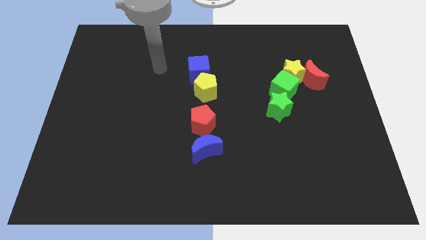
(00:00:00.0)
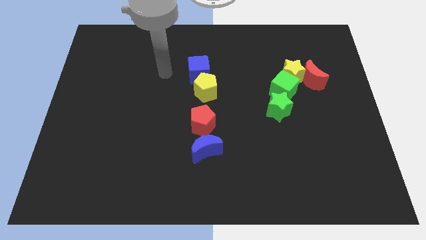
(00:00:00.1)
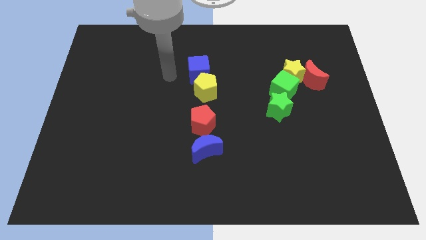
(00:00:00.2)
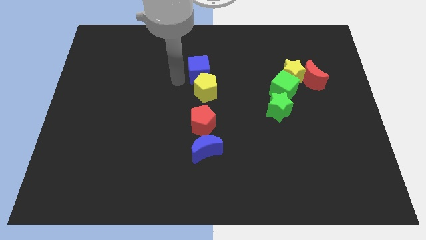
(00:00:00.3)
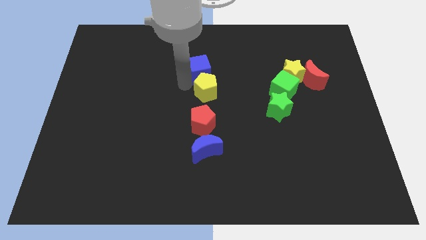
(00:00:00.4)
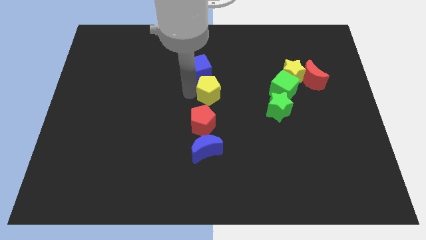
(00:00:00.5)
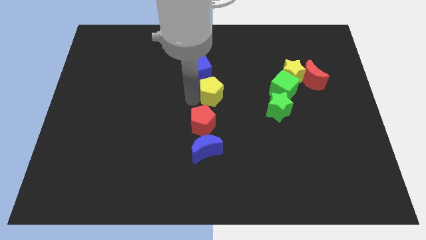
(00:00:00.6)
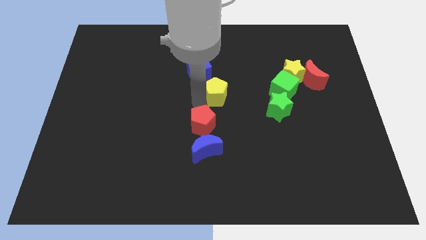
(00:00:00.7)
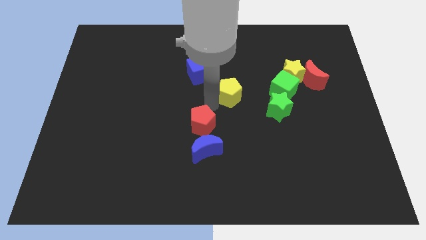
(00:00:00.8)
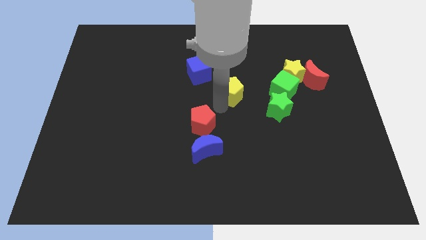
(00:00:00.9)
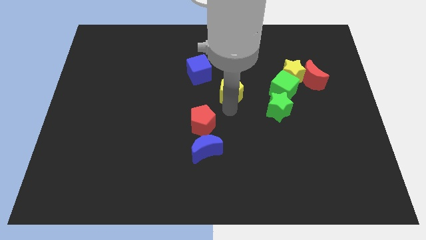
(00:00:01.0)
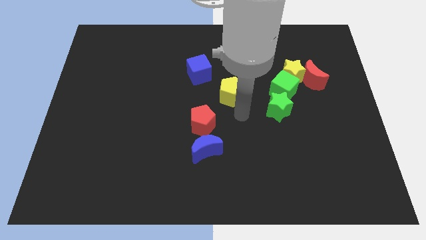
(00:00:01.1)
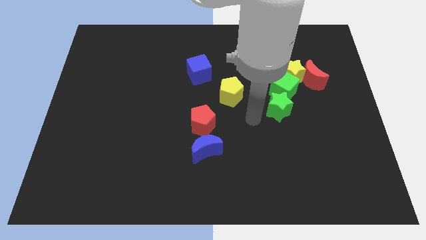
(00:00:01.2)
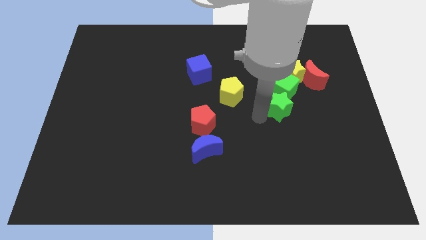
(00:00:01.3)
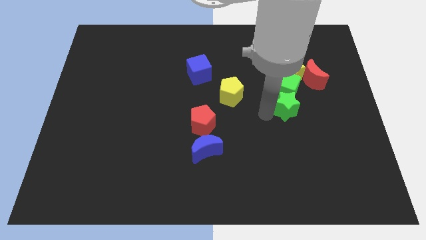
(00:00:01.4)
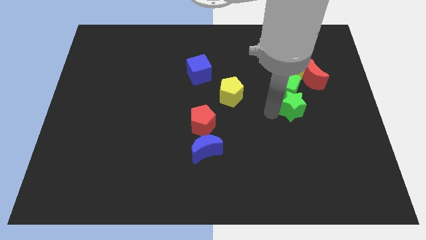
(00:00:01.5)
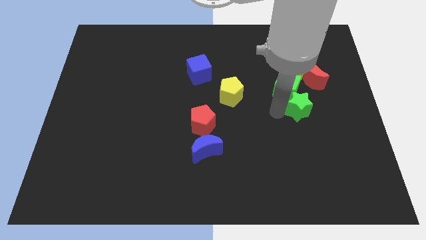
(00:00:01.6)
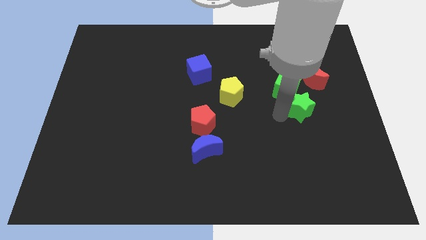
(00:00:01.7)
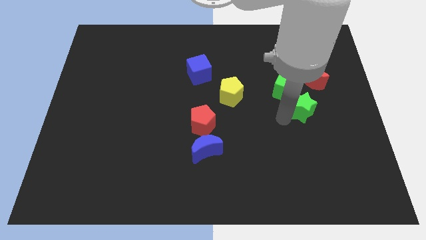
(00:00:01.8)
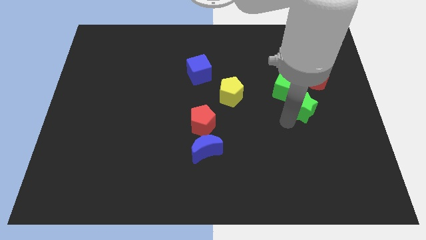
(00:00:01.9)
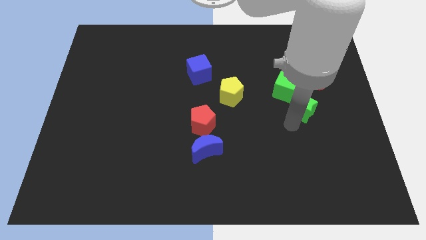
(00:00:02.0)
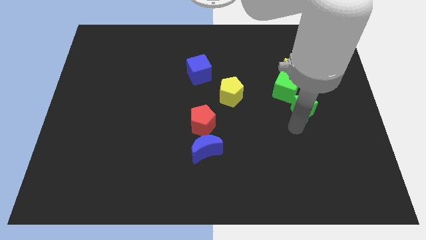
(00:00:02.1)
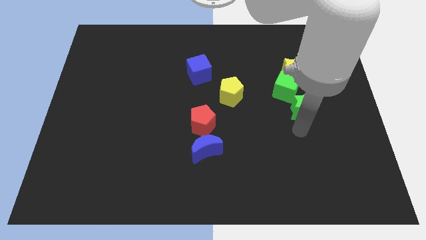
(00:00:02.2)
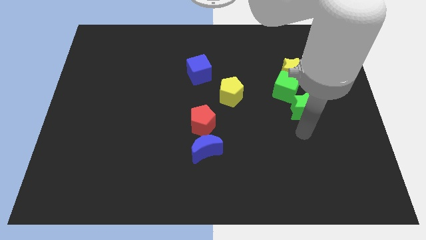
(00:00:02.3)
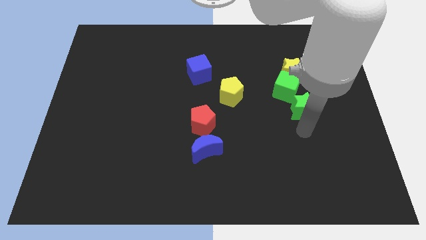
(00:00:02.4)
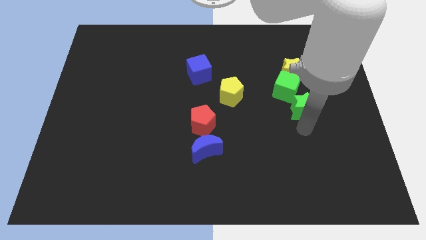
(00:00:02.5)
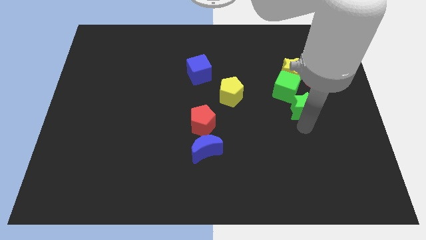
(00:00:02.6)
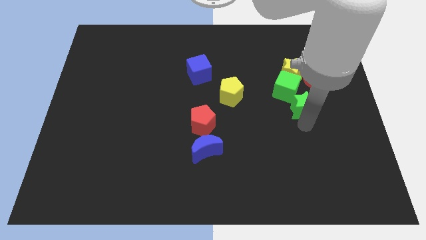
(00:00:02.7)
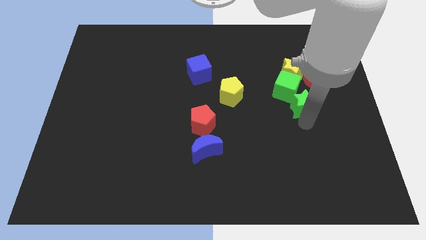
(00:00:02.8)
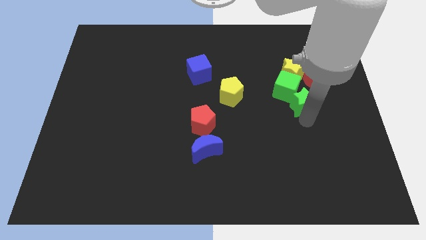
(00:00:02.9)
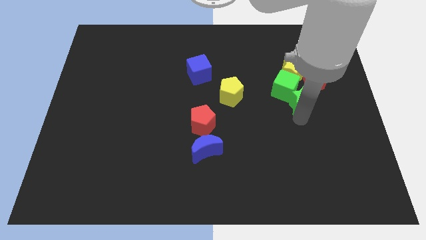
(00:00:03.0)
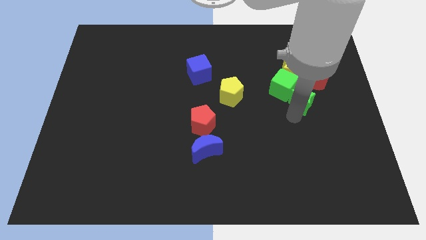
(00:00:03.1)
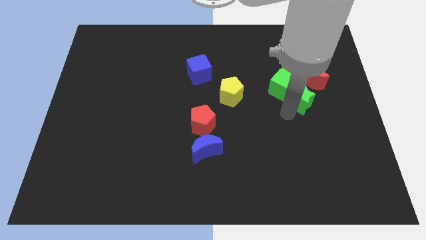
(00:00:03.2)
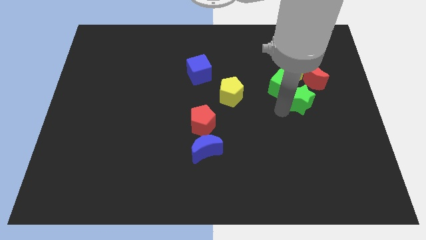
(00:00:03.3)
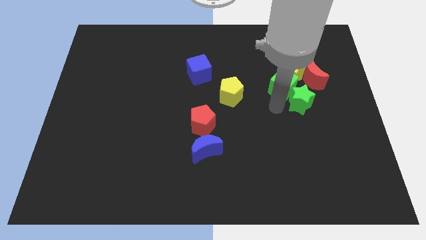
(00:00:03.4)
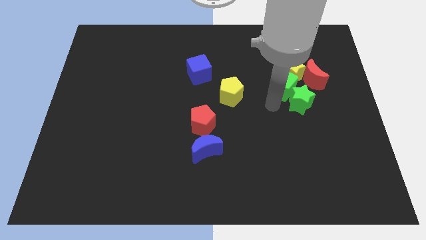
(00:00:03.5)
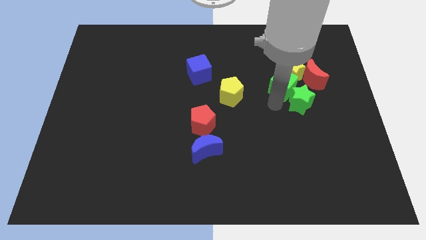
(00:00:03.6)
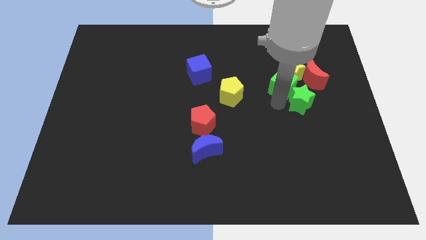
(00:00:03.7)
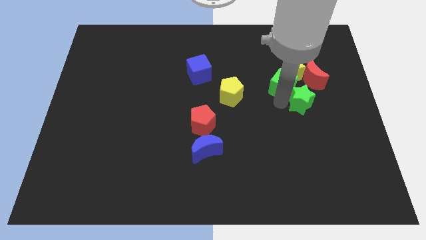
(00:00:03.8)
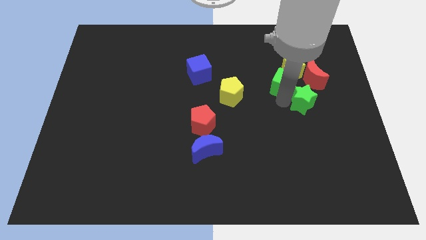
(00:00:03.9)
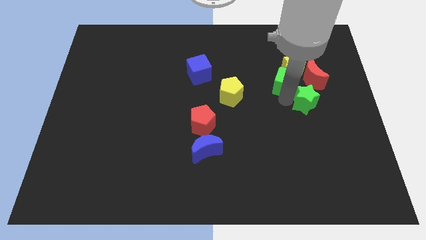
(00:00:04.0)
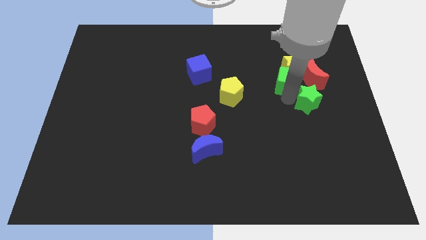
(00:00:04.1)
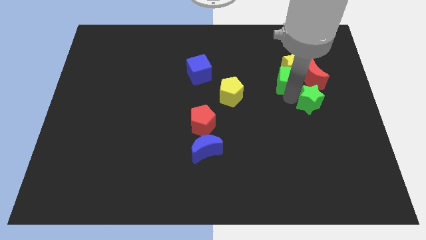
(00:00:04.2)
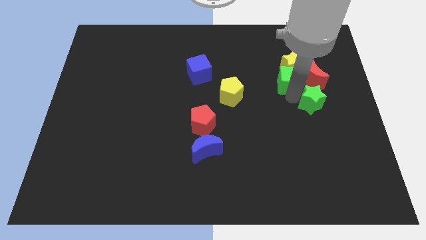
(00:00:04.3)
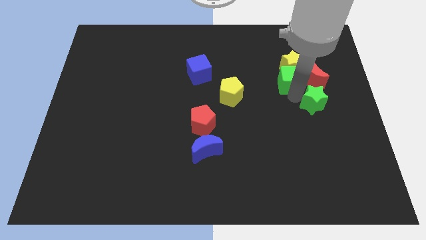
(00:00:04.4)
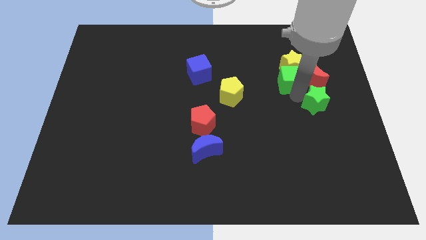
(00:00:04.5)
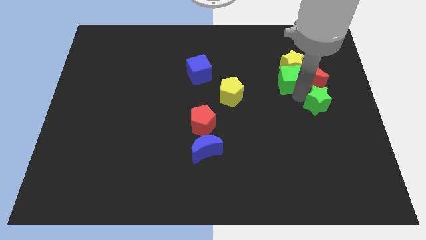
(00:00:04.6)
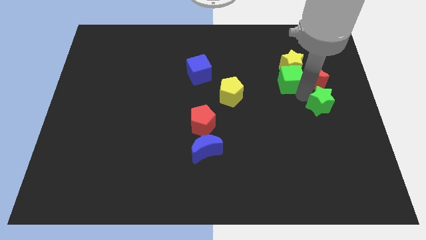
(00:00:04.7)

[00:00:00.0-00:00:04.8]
slide the green star to the right side of the board

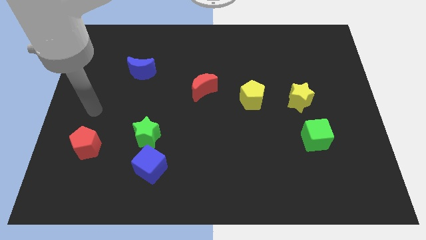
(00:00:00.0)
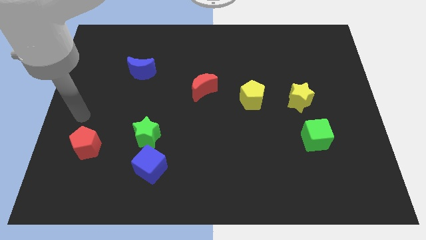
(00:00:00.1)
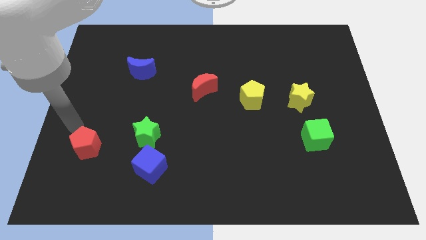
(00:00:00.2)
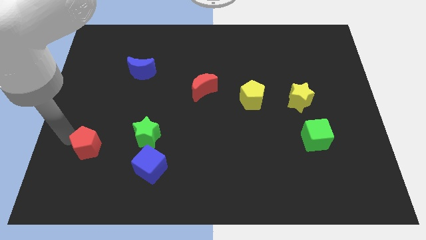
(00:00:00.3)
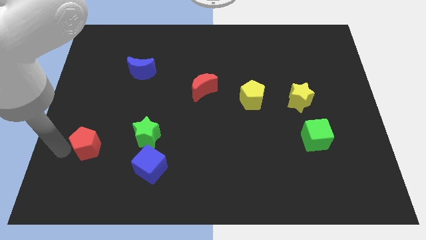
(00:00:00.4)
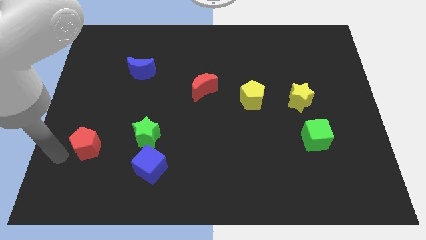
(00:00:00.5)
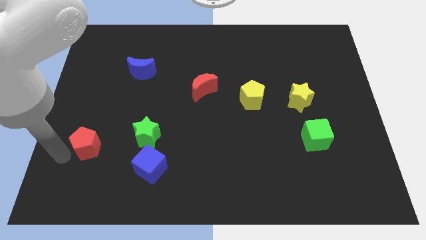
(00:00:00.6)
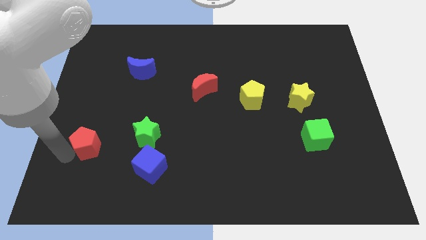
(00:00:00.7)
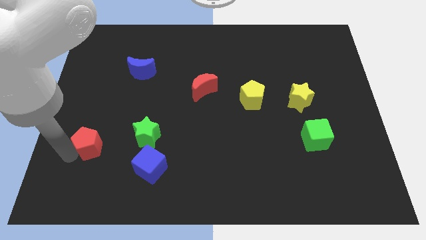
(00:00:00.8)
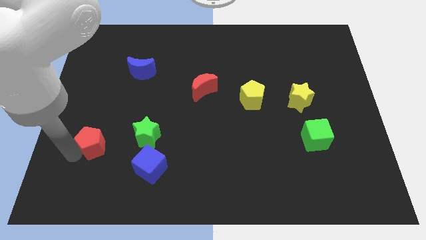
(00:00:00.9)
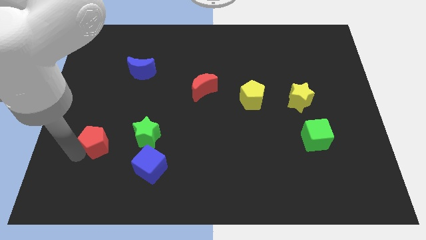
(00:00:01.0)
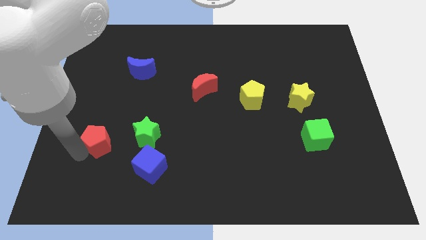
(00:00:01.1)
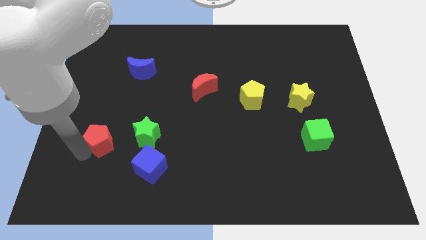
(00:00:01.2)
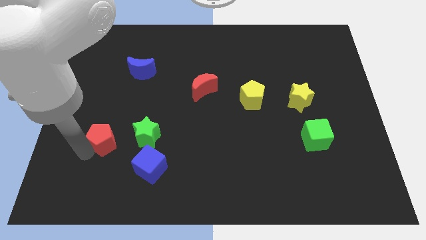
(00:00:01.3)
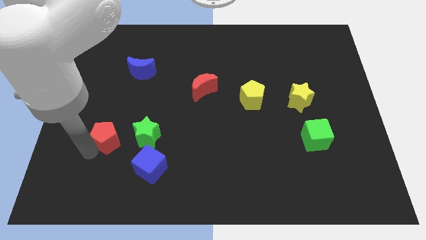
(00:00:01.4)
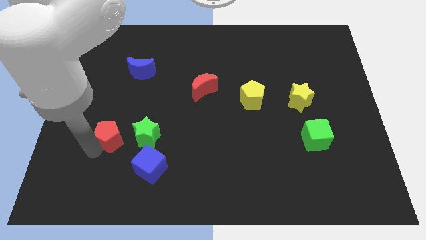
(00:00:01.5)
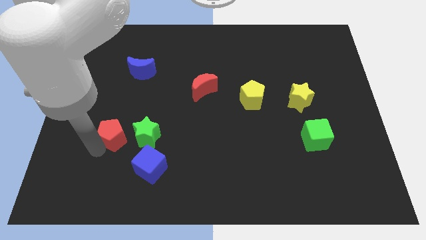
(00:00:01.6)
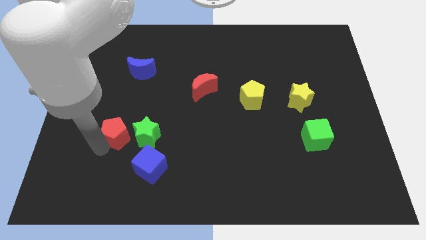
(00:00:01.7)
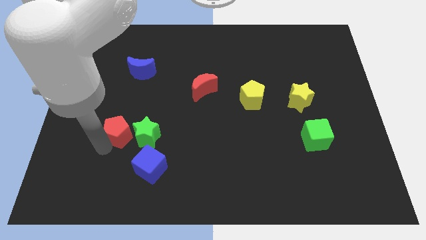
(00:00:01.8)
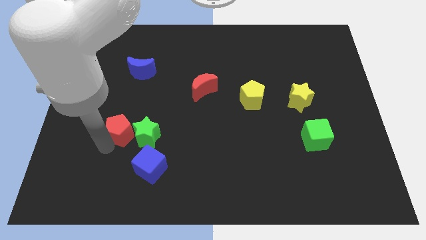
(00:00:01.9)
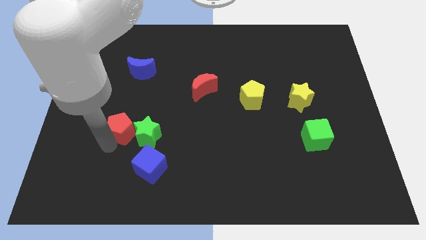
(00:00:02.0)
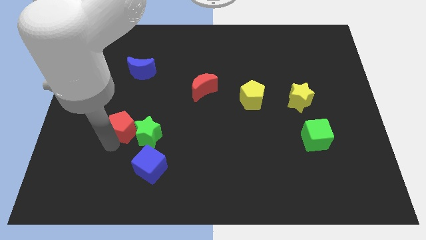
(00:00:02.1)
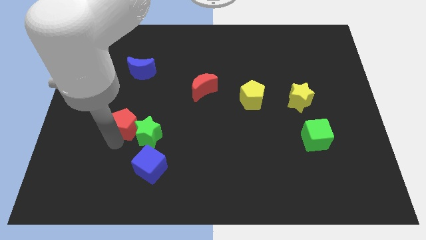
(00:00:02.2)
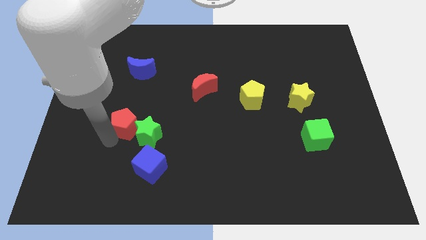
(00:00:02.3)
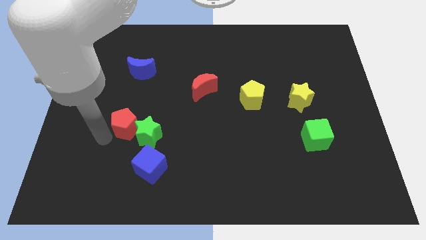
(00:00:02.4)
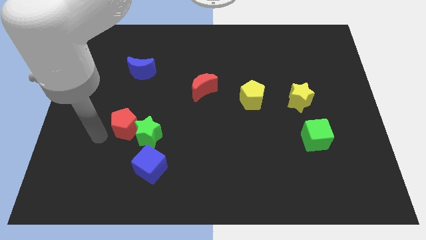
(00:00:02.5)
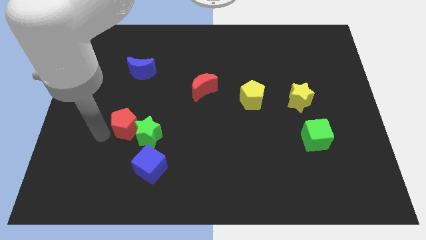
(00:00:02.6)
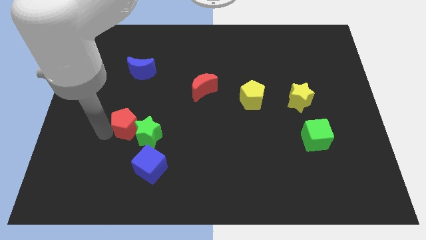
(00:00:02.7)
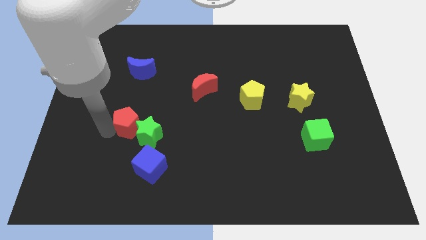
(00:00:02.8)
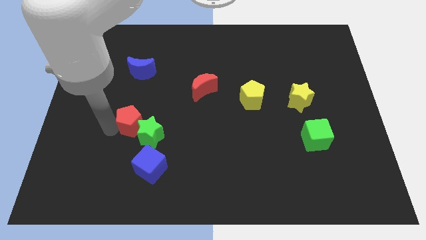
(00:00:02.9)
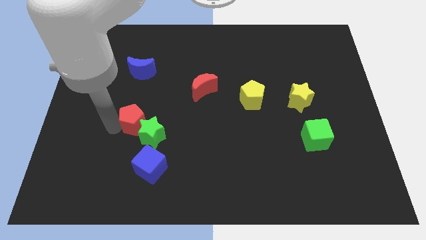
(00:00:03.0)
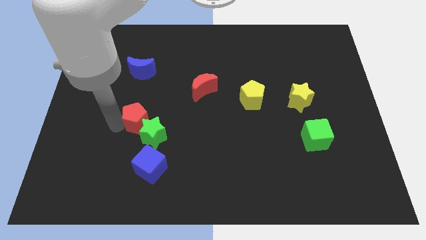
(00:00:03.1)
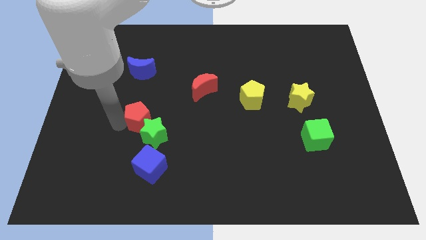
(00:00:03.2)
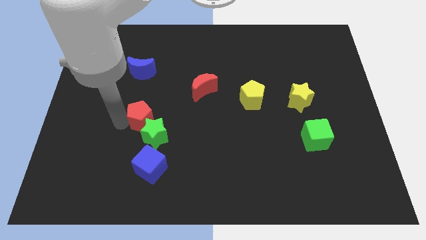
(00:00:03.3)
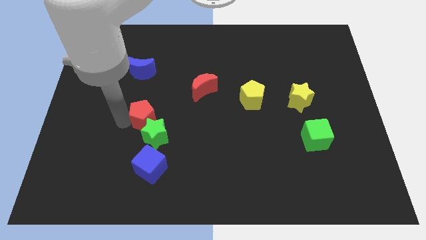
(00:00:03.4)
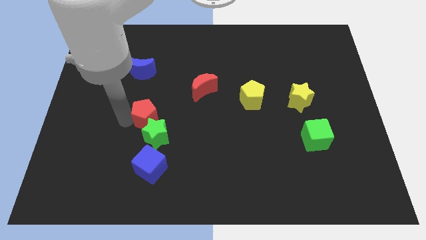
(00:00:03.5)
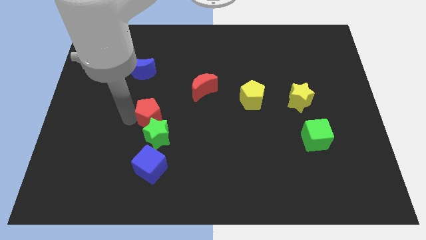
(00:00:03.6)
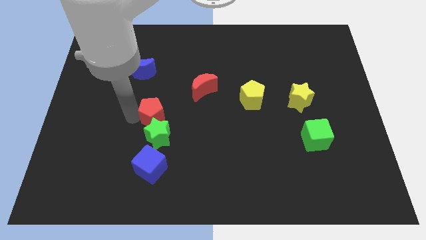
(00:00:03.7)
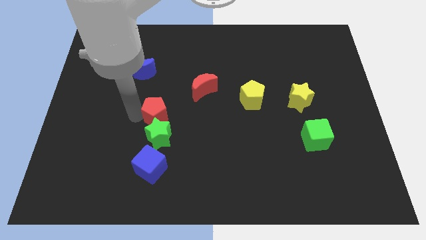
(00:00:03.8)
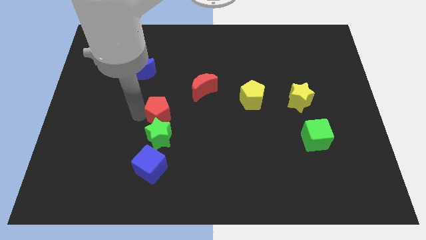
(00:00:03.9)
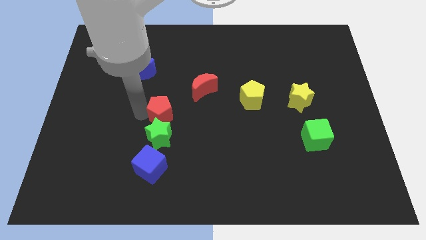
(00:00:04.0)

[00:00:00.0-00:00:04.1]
slide the red pentagon to the middle of the board
